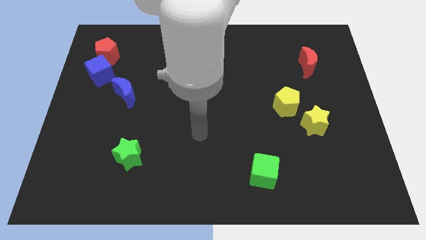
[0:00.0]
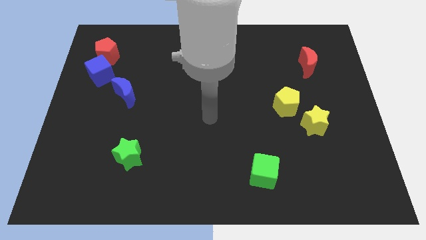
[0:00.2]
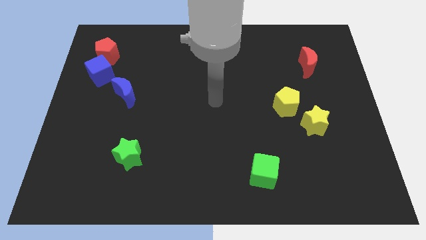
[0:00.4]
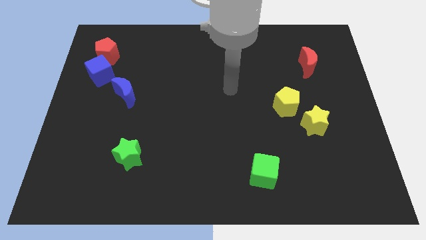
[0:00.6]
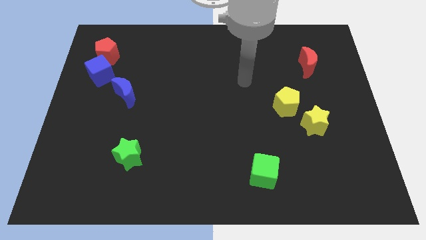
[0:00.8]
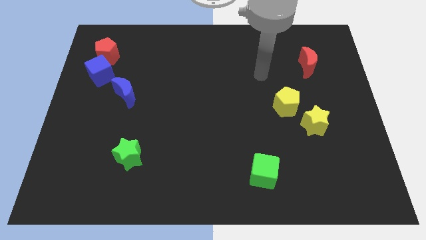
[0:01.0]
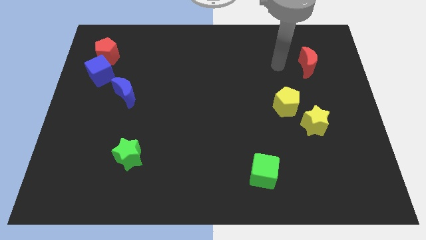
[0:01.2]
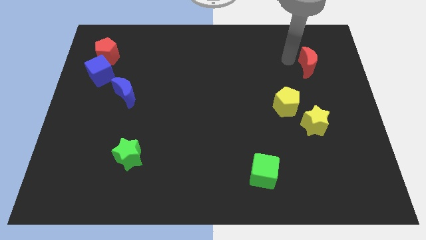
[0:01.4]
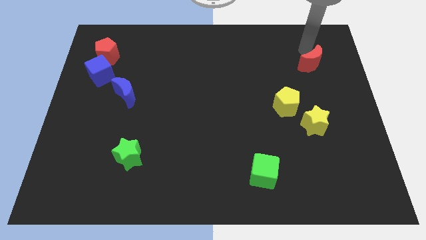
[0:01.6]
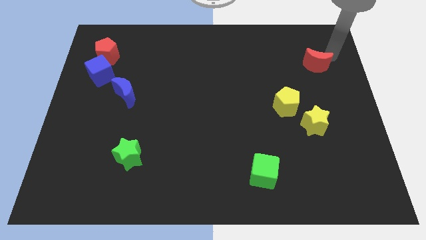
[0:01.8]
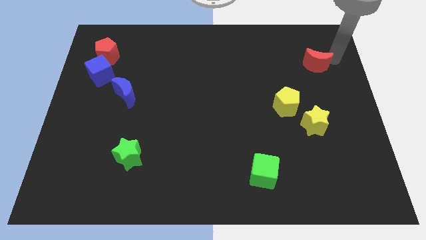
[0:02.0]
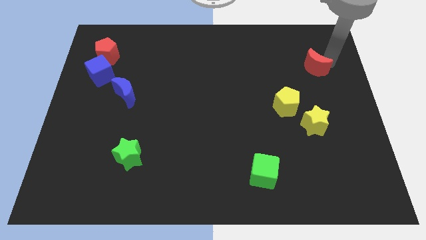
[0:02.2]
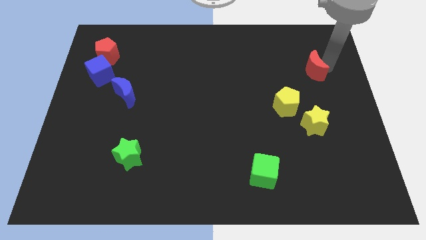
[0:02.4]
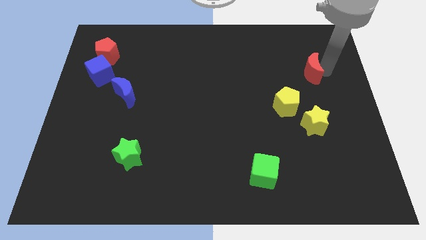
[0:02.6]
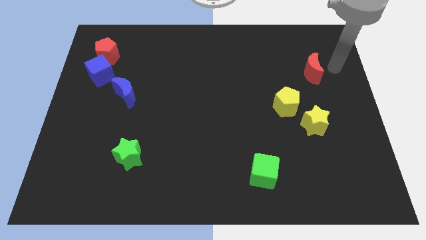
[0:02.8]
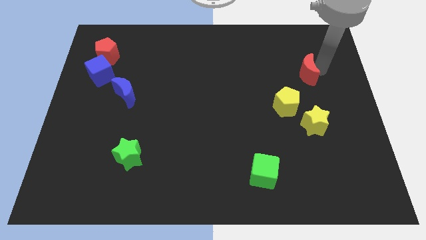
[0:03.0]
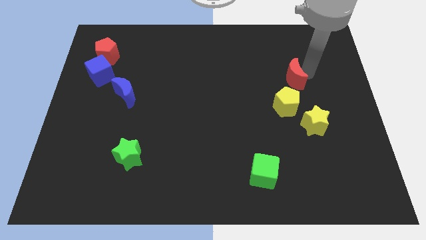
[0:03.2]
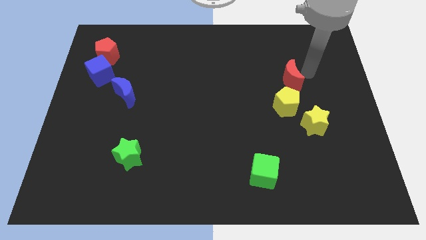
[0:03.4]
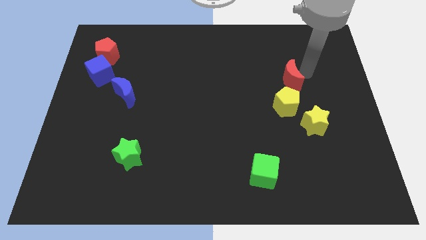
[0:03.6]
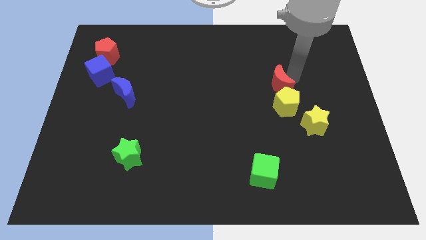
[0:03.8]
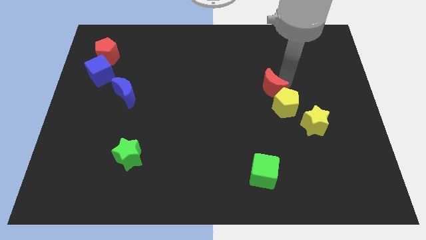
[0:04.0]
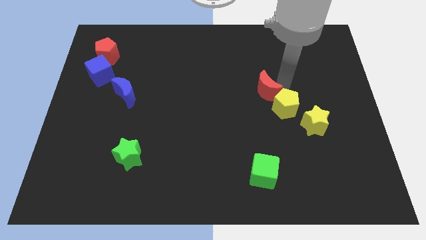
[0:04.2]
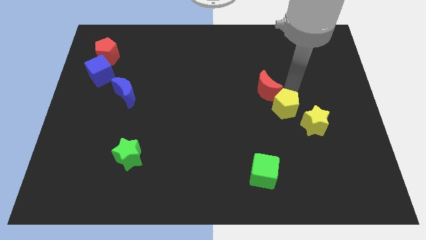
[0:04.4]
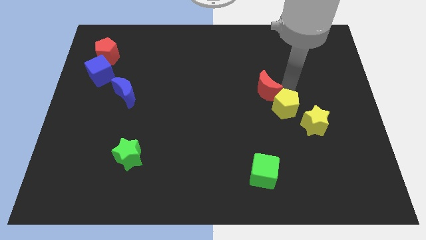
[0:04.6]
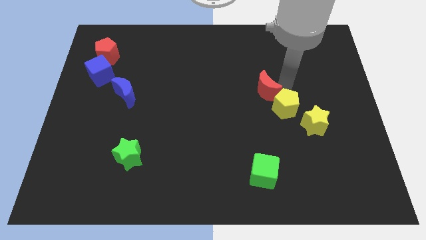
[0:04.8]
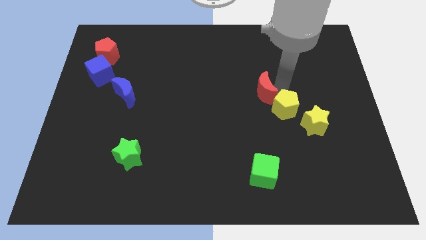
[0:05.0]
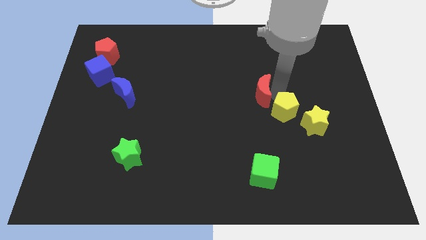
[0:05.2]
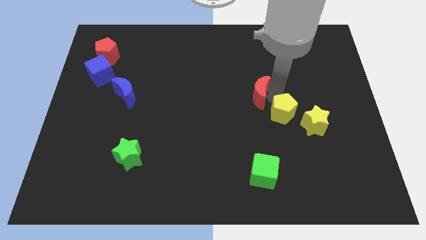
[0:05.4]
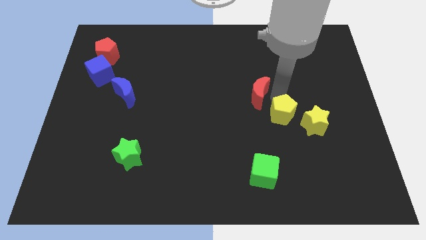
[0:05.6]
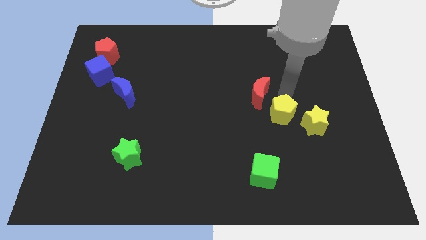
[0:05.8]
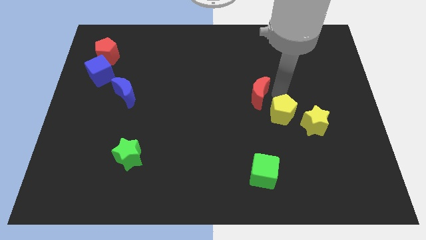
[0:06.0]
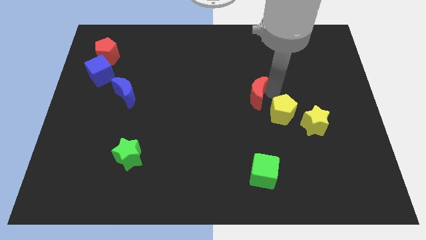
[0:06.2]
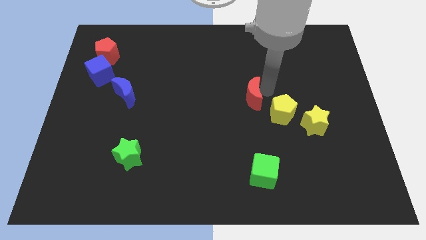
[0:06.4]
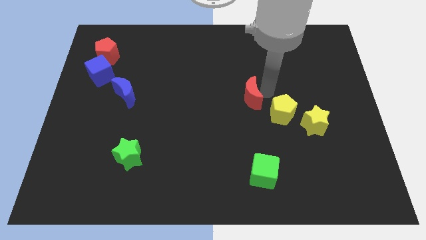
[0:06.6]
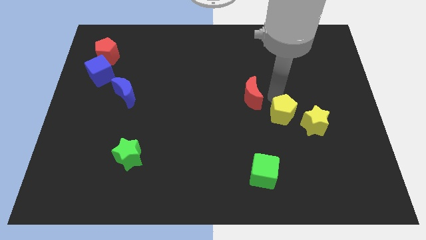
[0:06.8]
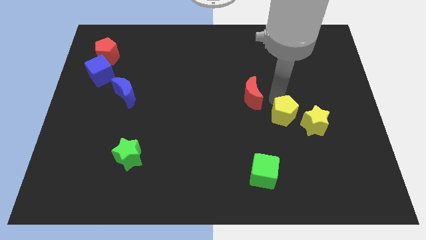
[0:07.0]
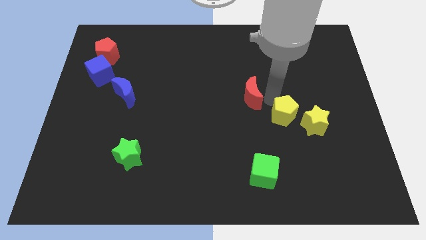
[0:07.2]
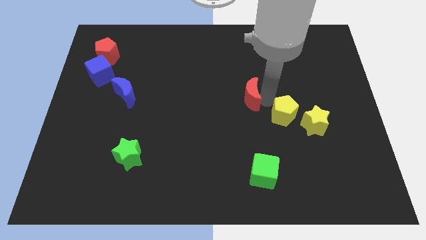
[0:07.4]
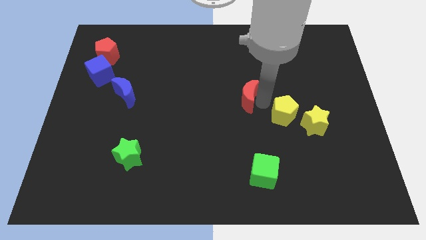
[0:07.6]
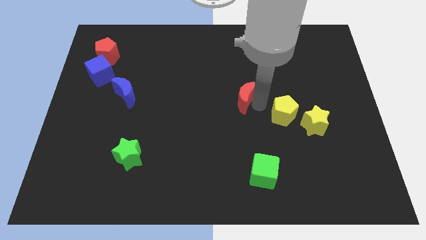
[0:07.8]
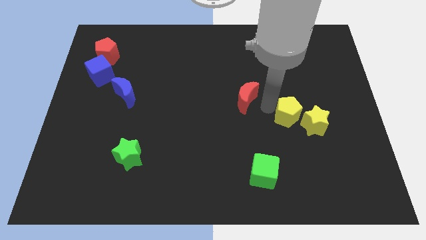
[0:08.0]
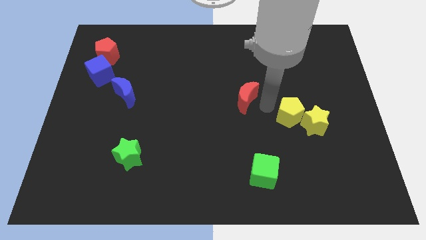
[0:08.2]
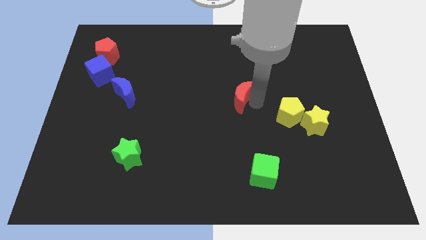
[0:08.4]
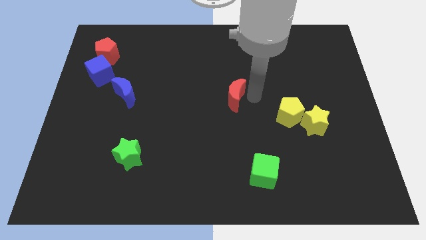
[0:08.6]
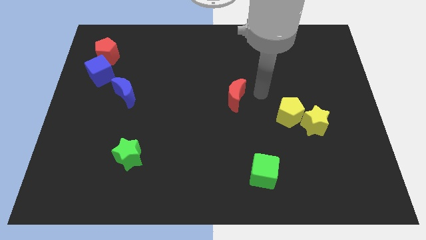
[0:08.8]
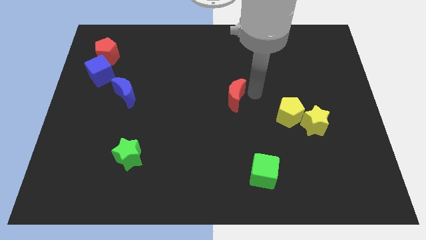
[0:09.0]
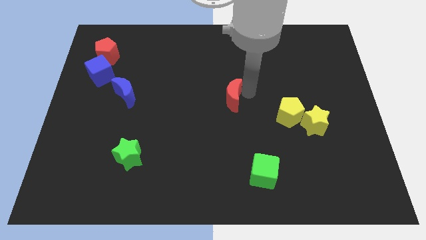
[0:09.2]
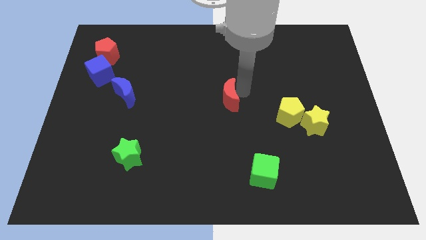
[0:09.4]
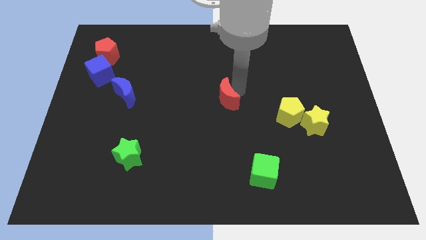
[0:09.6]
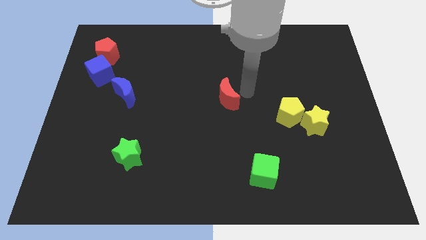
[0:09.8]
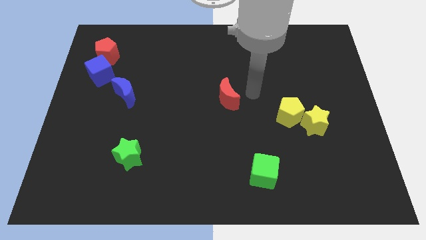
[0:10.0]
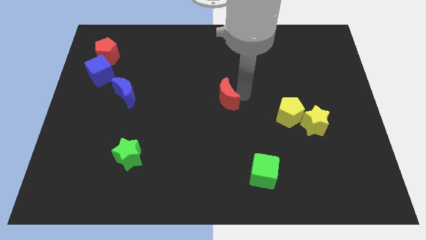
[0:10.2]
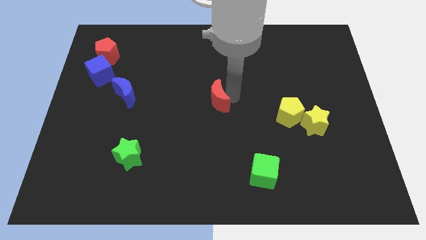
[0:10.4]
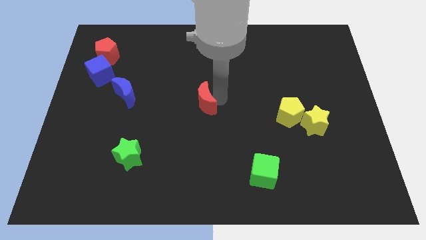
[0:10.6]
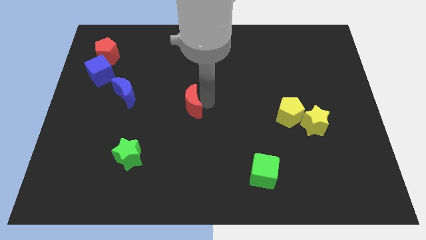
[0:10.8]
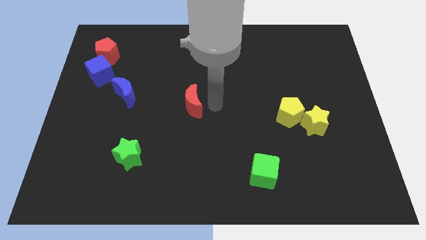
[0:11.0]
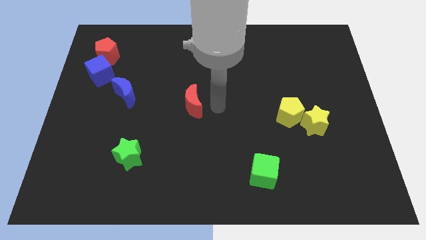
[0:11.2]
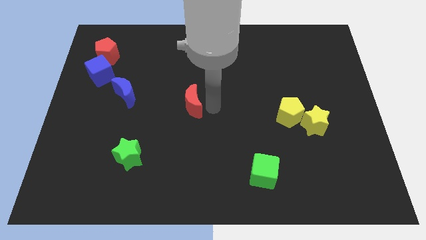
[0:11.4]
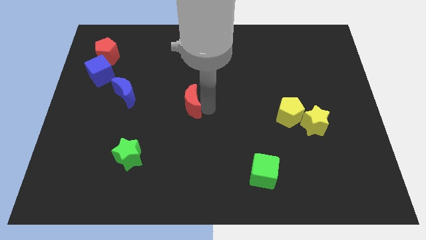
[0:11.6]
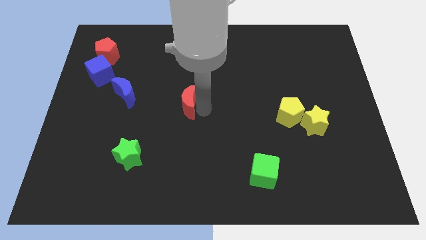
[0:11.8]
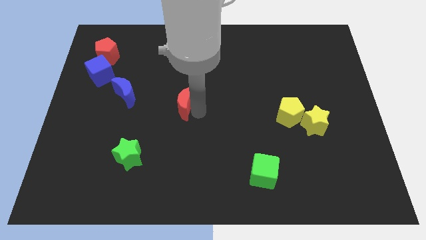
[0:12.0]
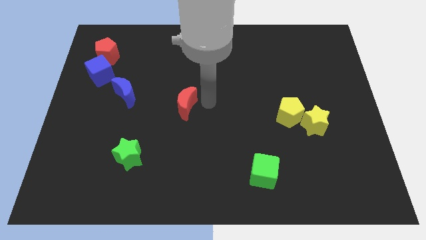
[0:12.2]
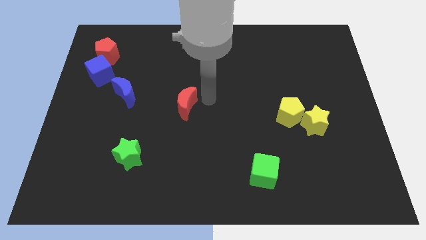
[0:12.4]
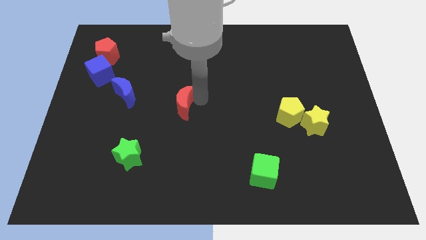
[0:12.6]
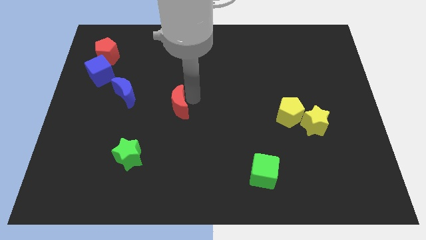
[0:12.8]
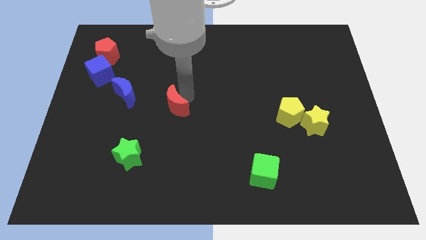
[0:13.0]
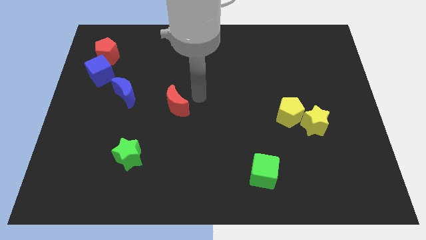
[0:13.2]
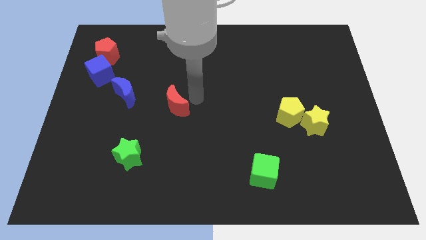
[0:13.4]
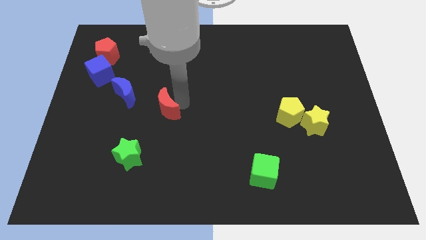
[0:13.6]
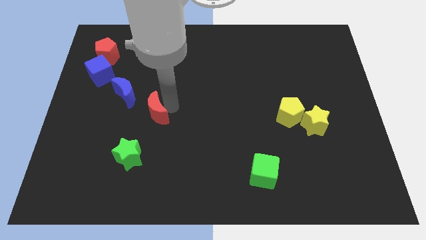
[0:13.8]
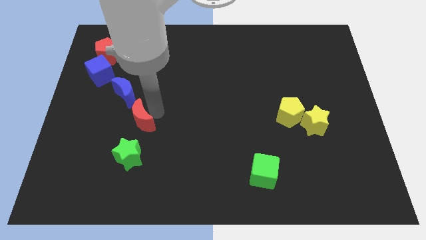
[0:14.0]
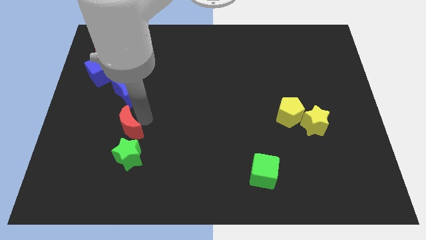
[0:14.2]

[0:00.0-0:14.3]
slide the red moon to the top left side of the green star

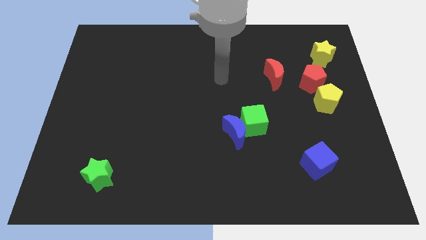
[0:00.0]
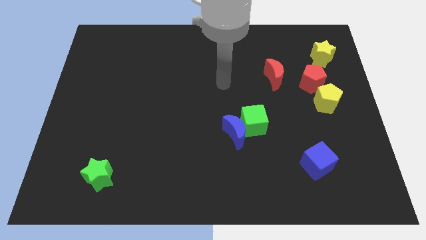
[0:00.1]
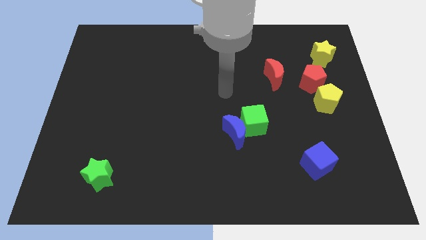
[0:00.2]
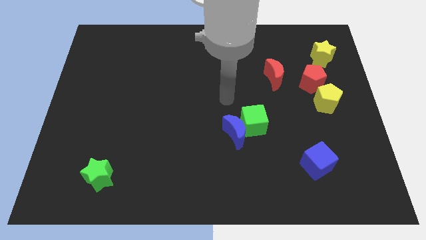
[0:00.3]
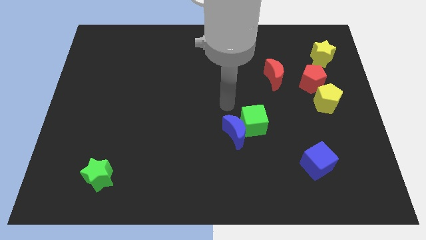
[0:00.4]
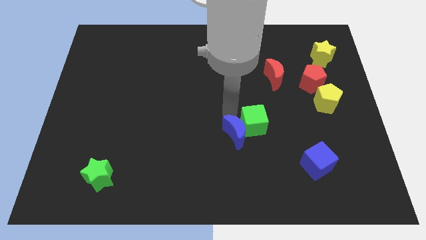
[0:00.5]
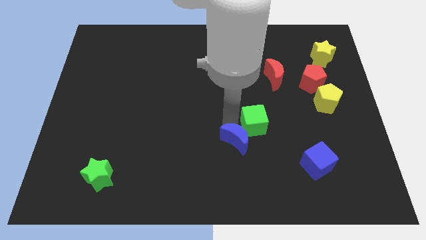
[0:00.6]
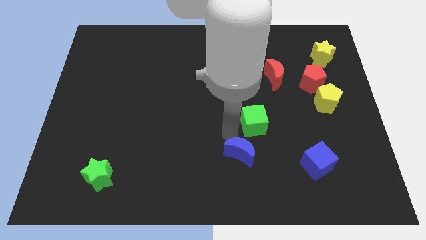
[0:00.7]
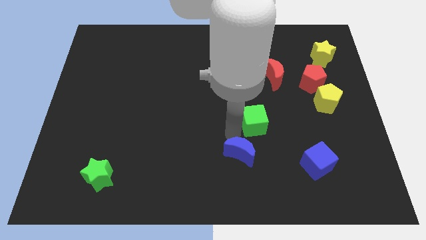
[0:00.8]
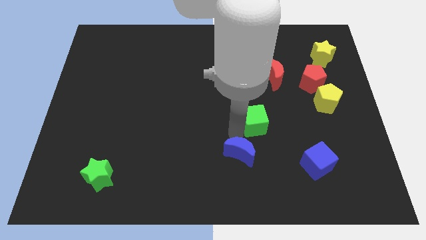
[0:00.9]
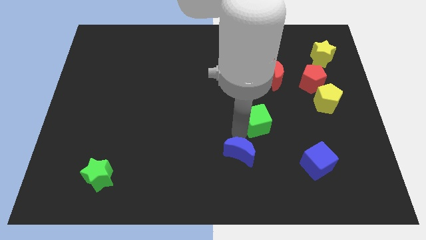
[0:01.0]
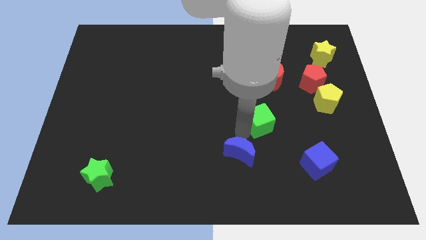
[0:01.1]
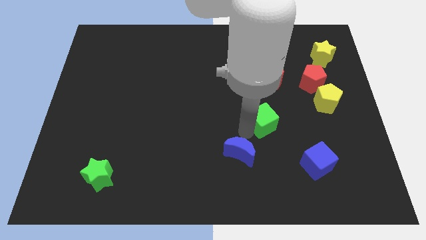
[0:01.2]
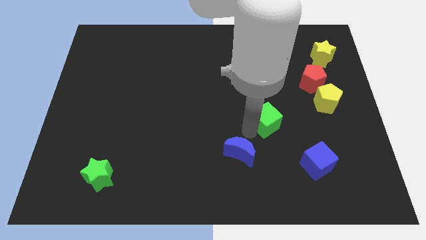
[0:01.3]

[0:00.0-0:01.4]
slide the green cube to the bottom of the red moon
